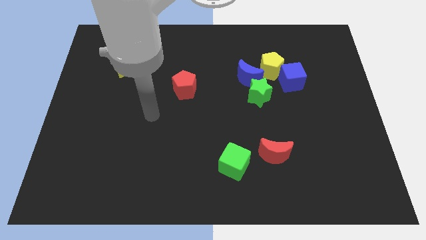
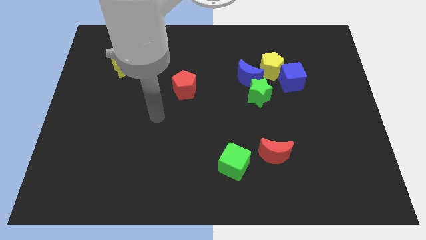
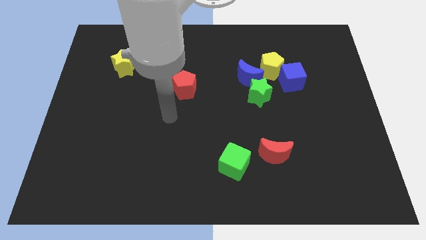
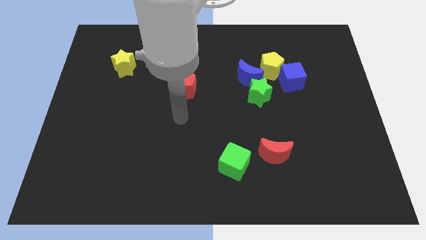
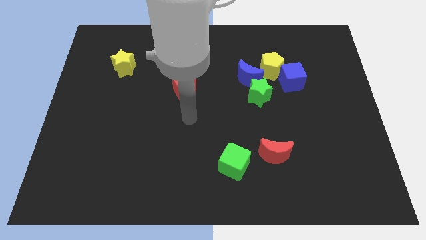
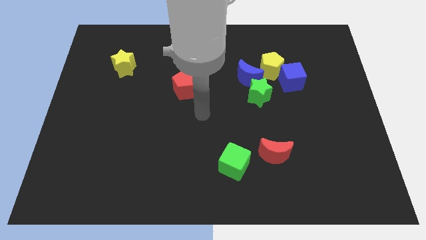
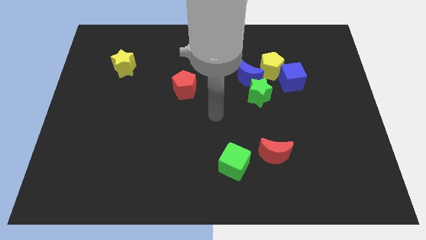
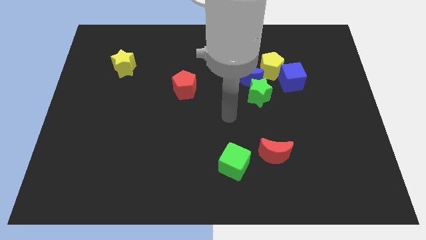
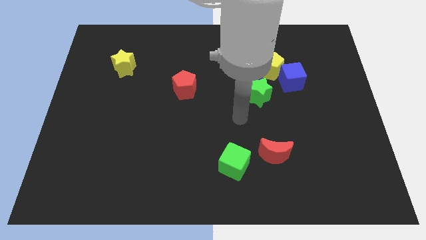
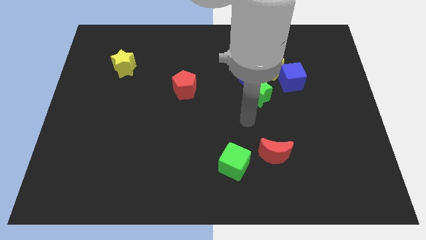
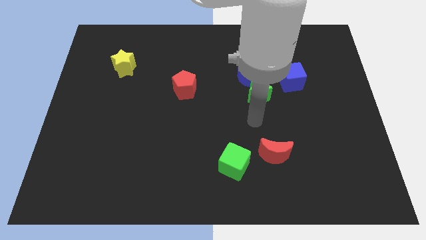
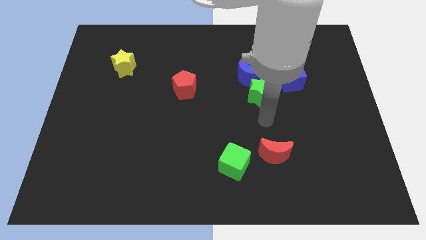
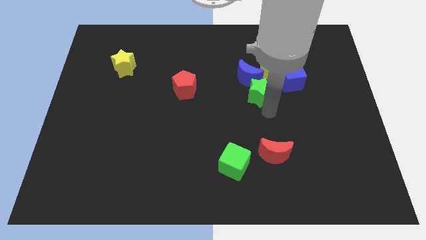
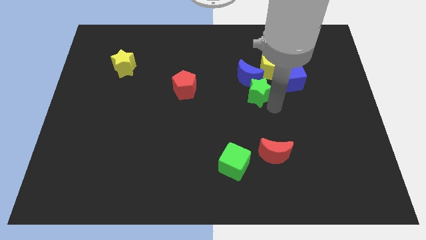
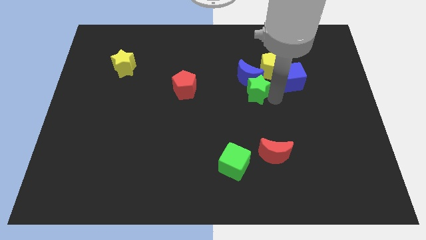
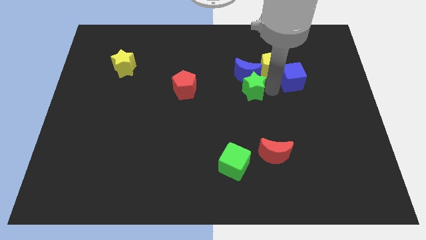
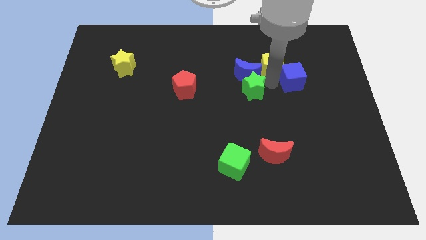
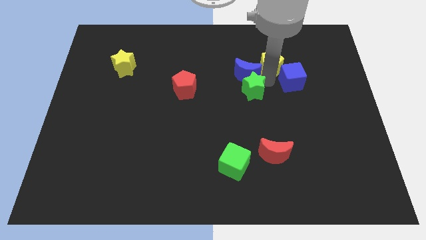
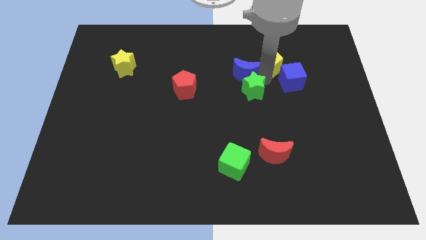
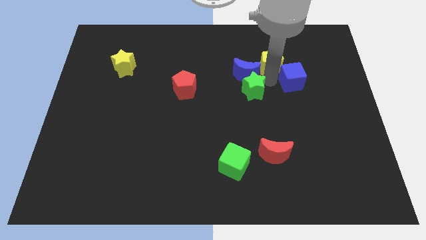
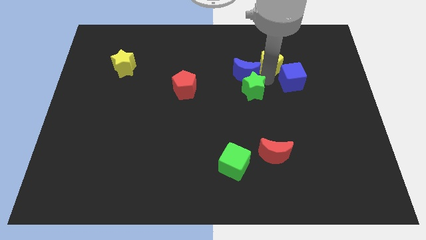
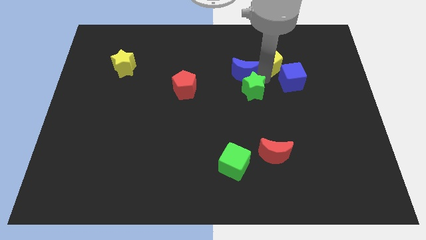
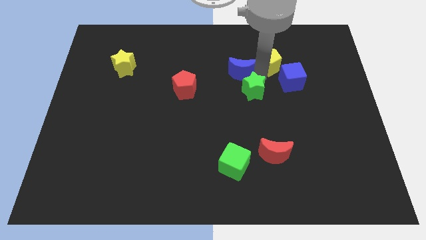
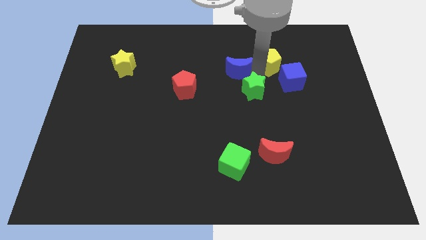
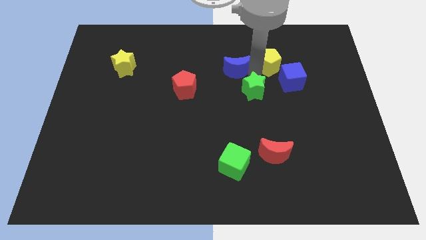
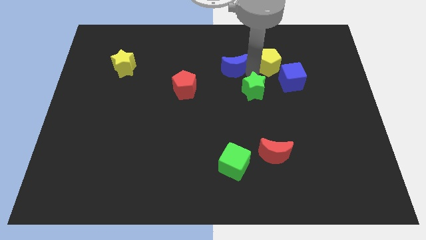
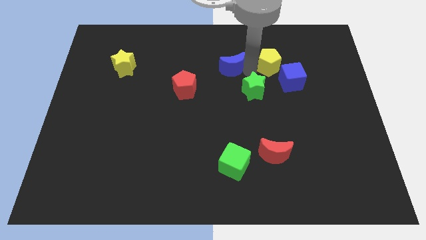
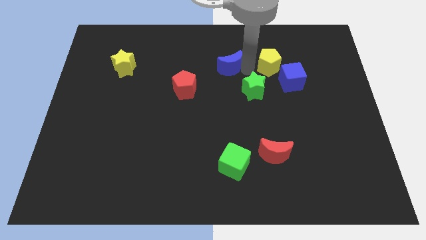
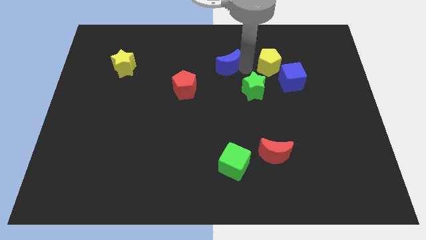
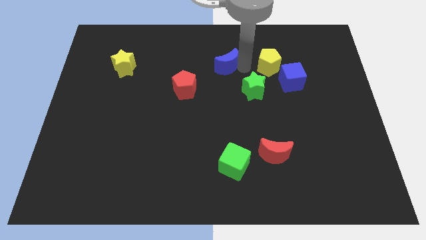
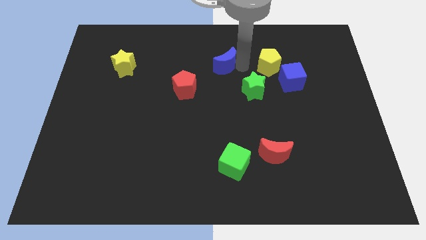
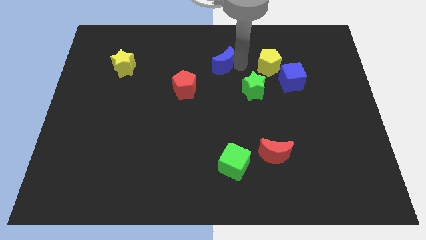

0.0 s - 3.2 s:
pull the blue moon apart from the green star and yellow pentagon

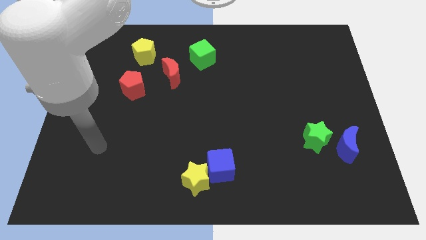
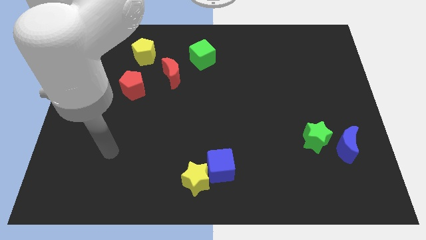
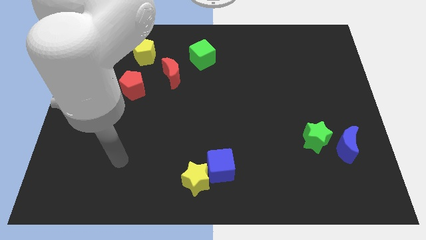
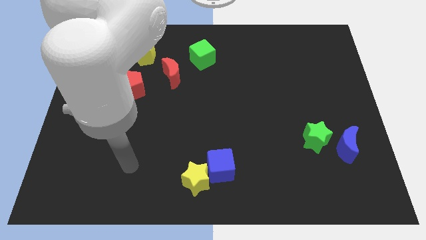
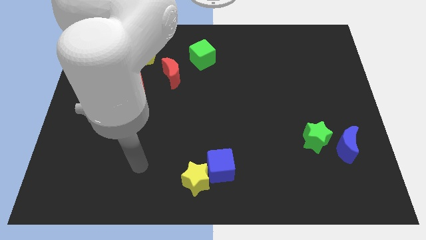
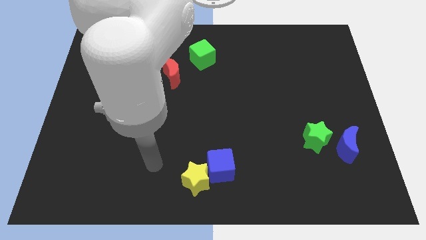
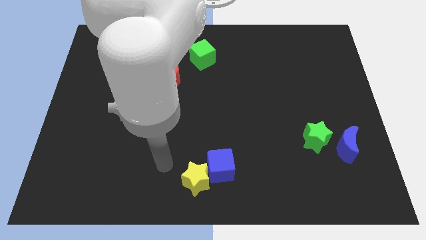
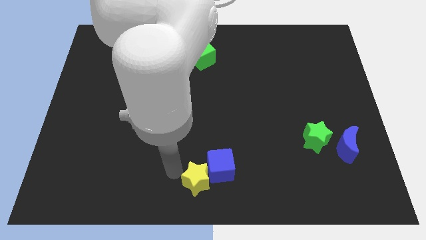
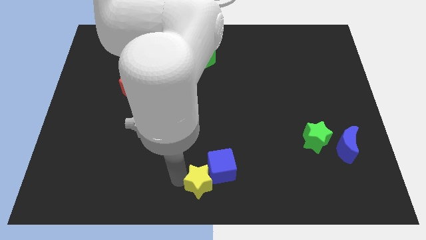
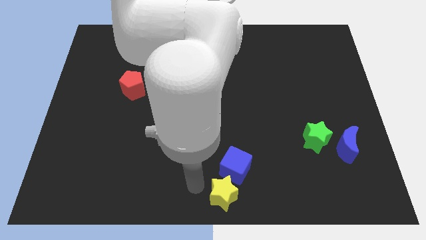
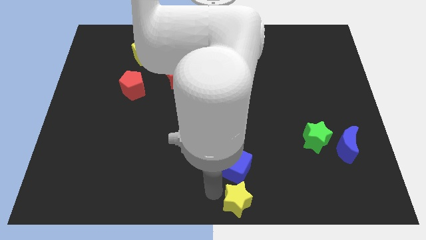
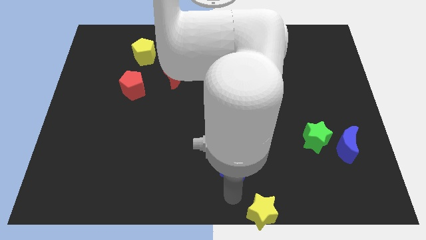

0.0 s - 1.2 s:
pull the blue cube apart from the yellow star

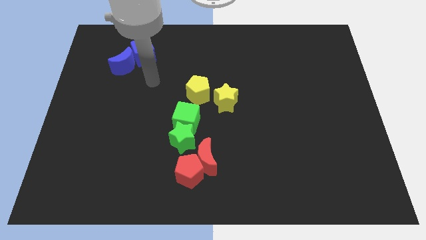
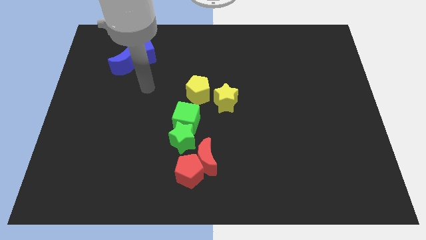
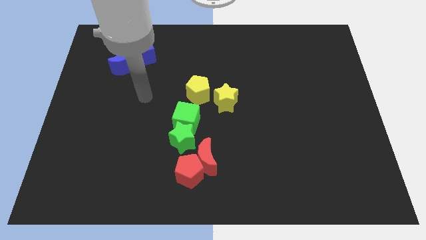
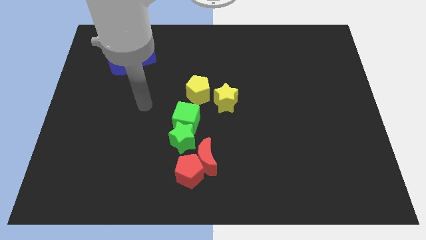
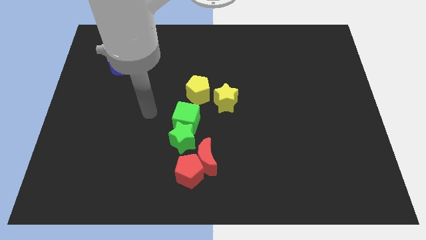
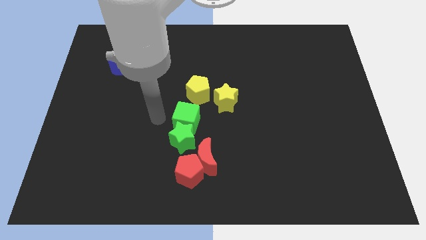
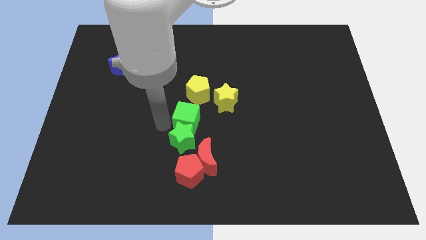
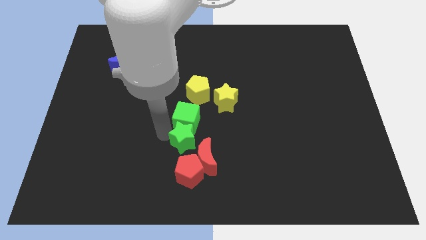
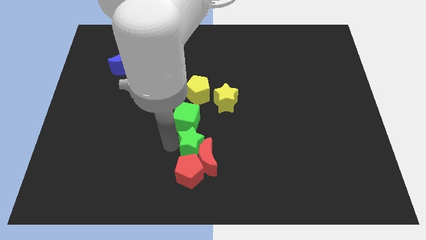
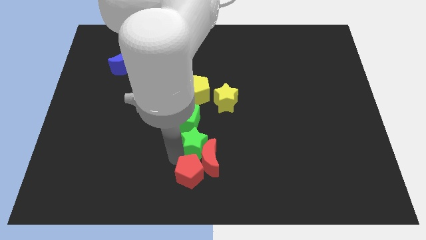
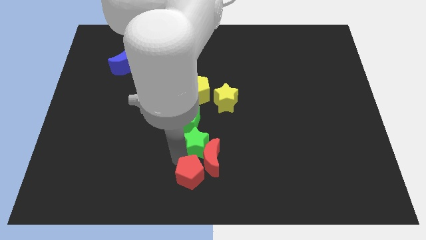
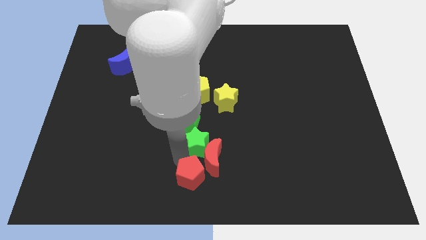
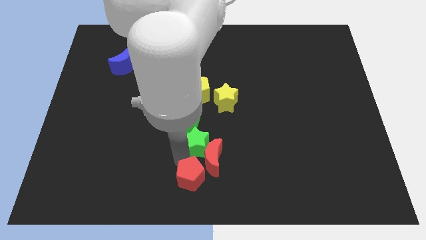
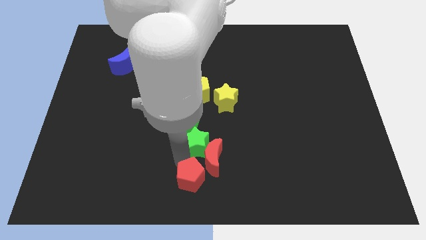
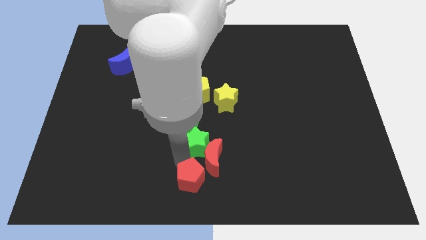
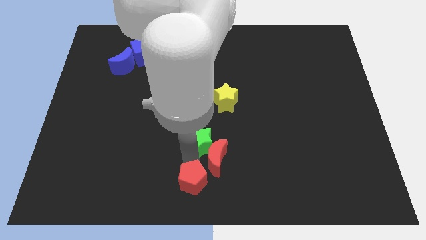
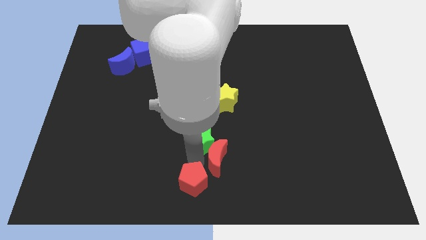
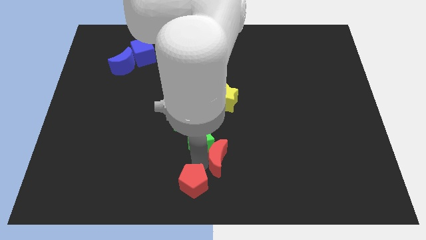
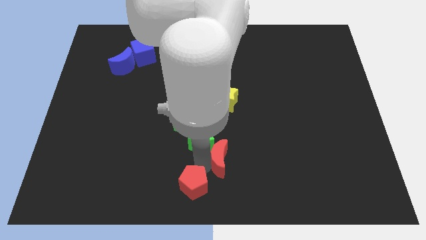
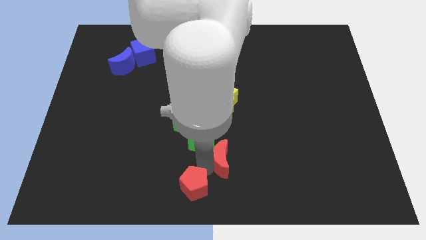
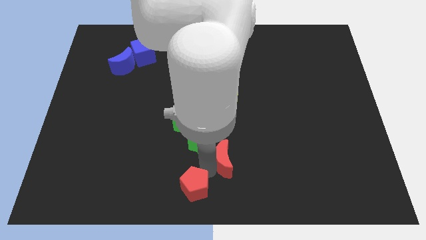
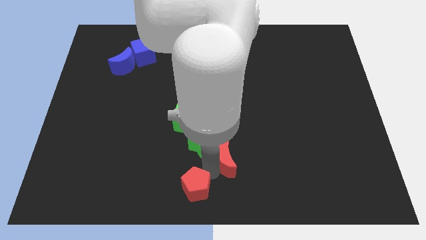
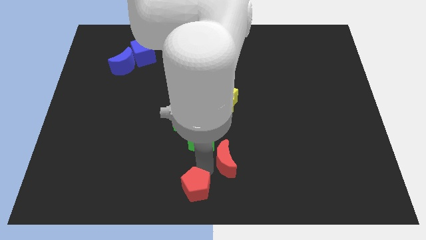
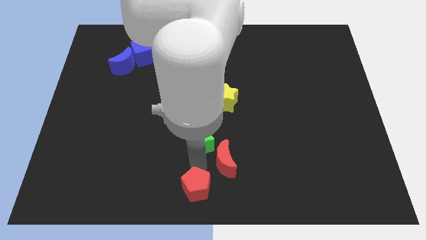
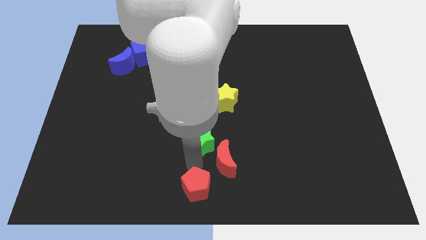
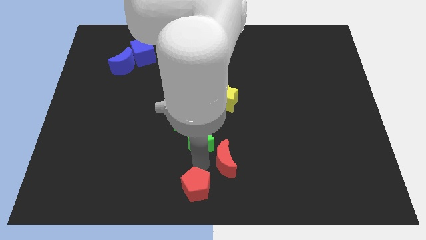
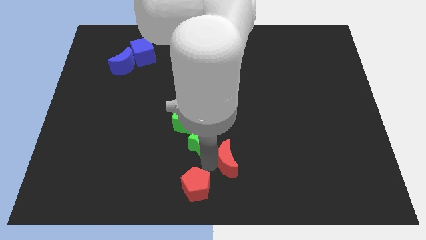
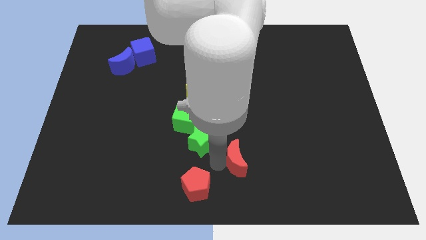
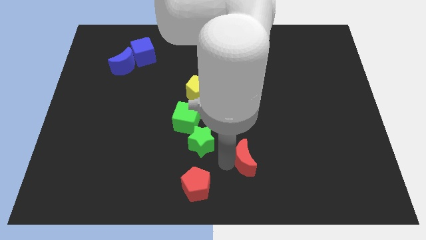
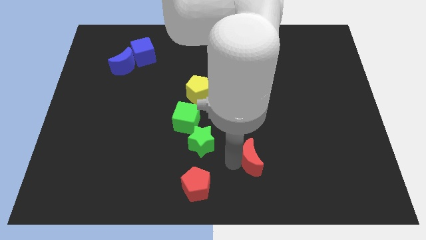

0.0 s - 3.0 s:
move the red moon away from the red pentagon and green star

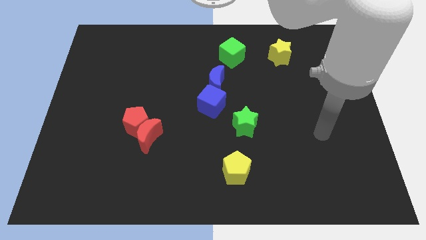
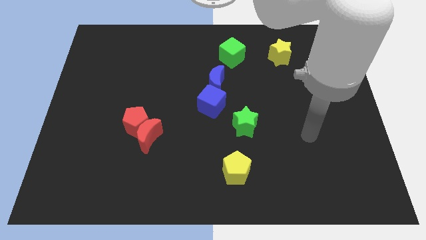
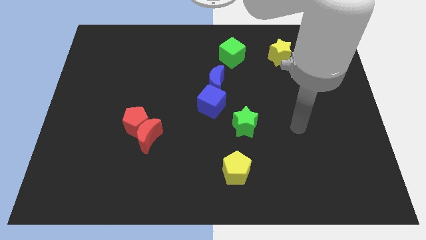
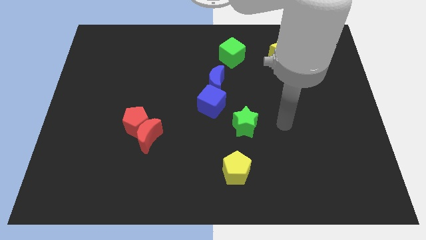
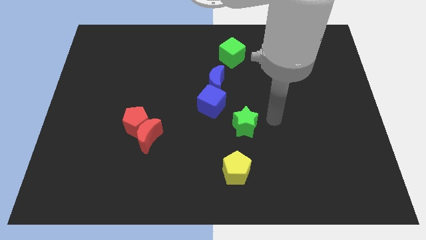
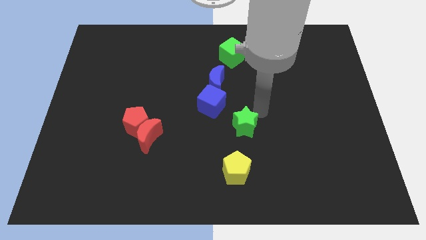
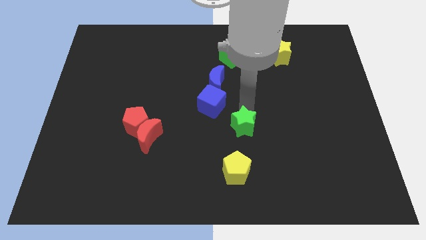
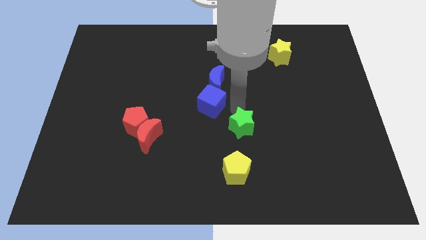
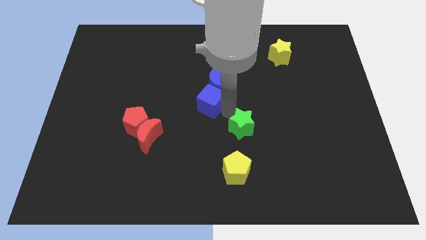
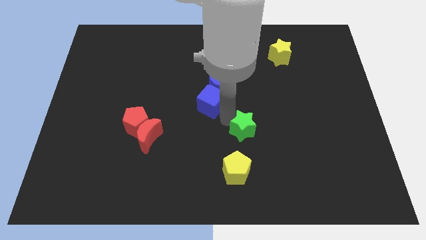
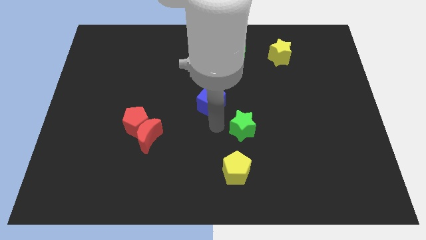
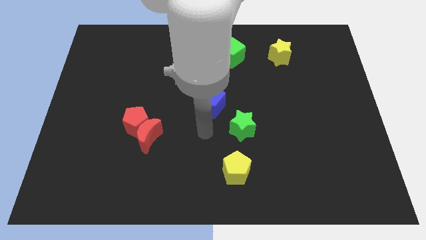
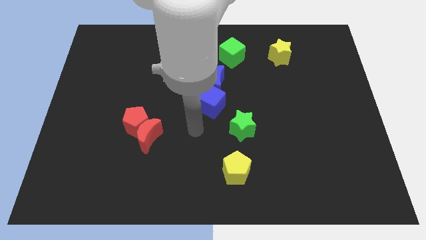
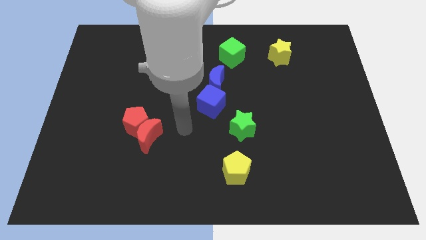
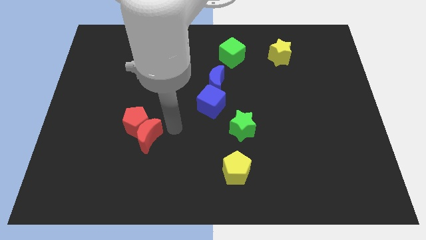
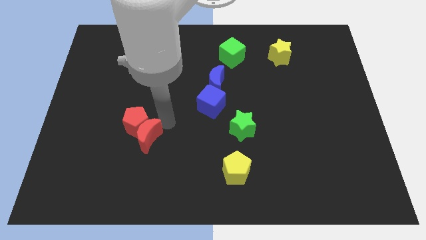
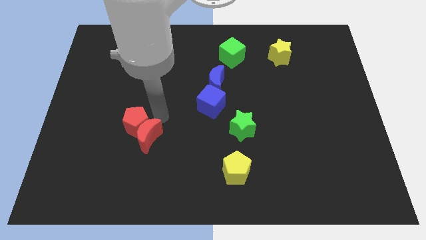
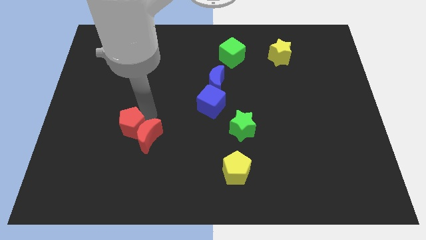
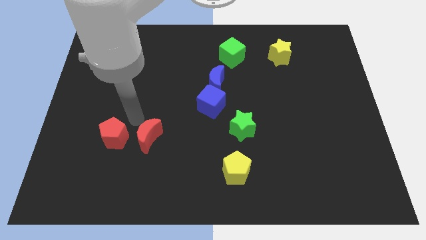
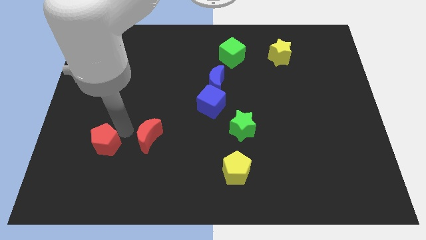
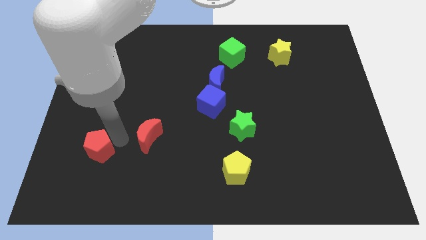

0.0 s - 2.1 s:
pull the red moon apart from the red pentagon
